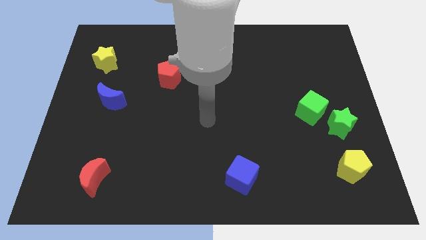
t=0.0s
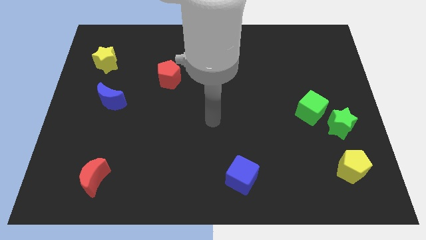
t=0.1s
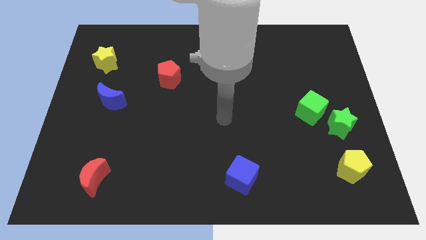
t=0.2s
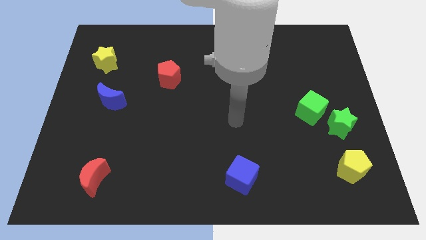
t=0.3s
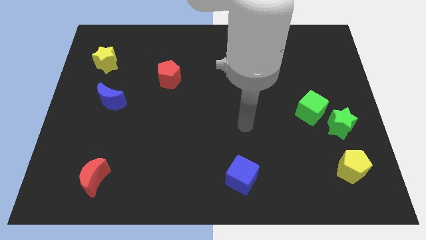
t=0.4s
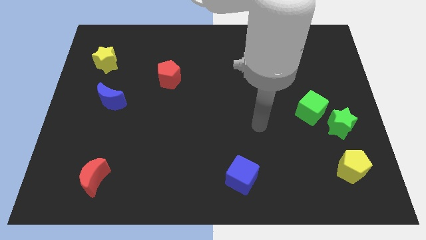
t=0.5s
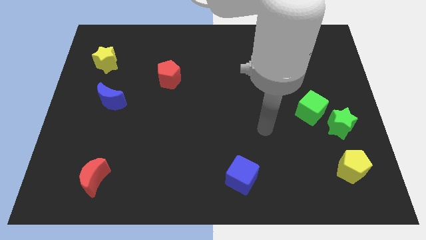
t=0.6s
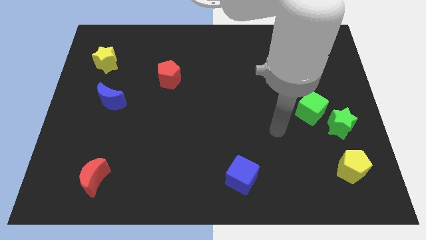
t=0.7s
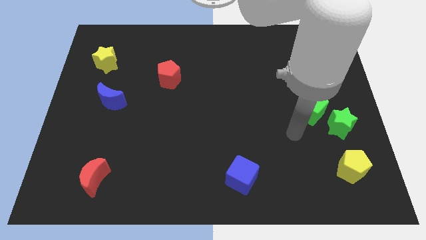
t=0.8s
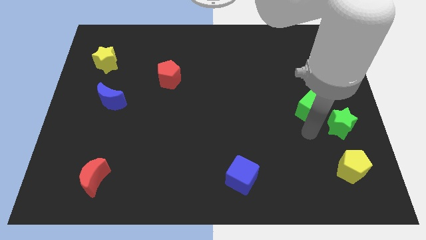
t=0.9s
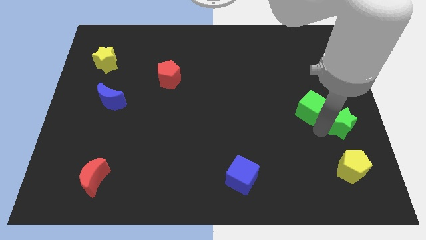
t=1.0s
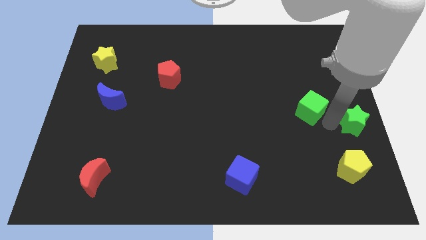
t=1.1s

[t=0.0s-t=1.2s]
separate the green cube from the green star

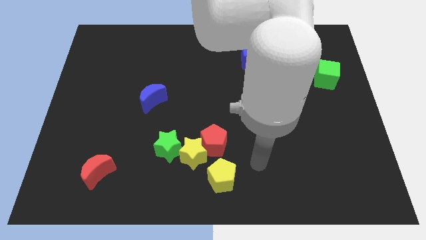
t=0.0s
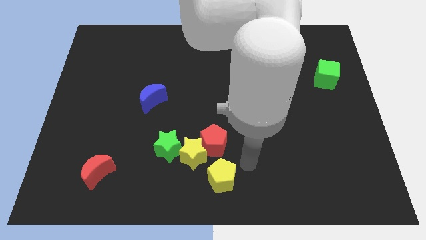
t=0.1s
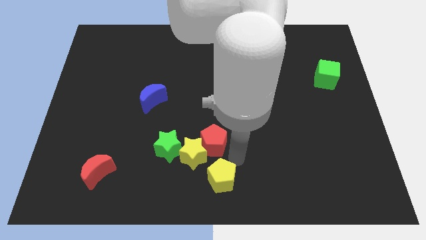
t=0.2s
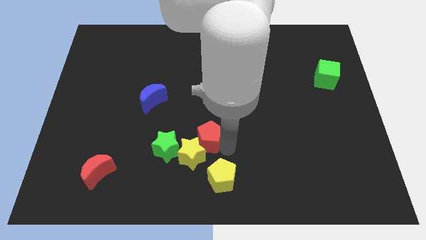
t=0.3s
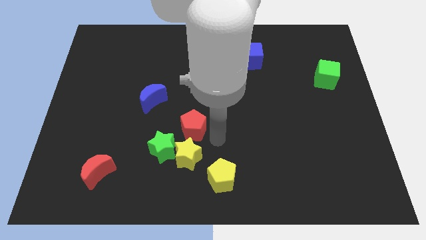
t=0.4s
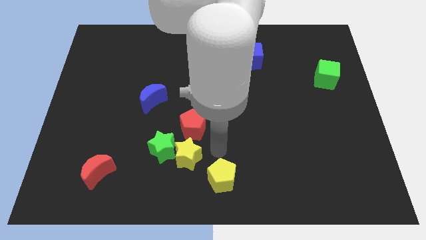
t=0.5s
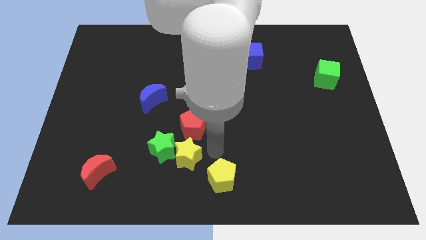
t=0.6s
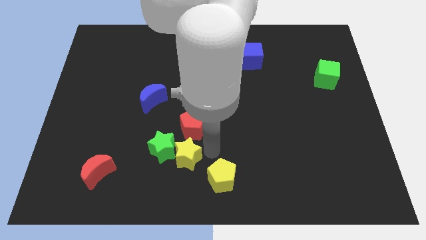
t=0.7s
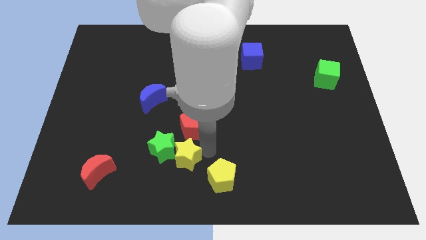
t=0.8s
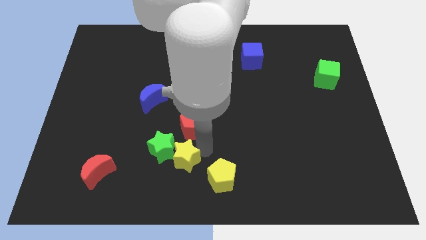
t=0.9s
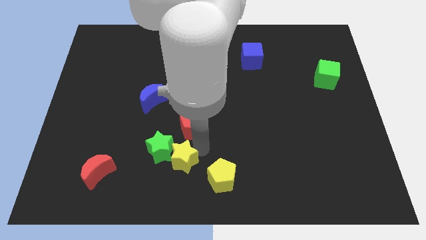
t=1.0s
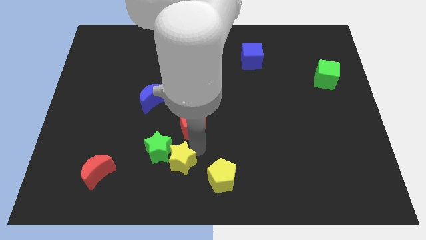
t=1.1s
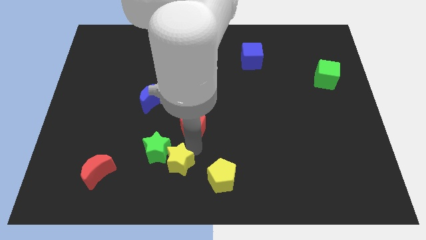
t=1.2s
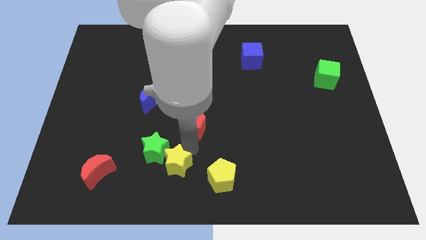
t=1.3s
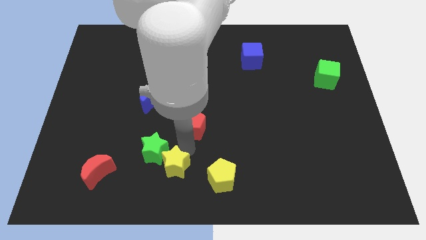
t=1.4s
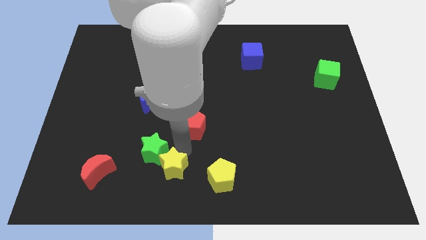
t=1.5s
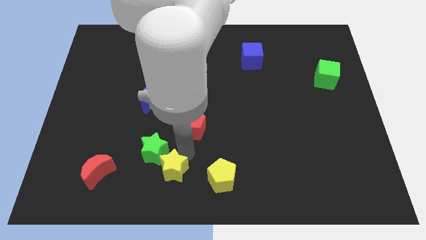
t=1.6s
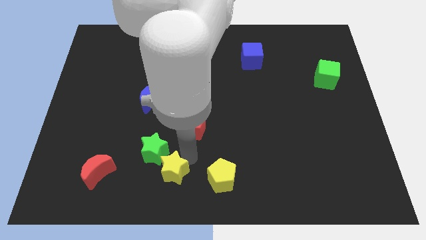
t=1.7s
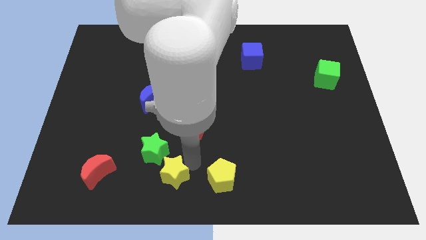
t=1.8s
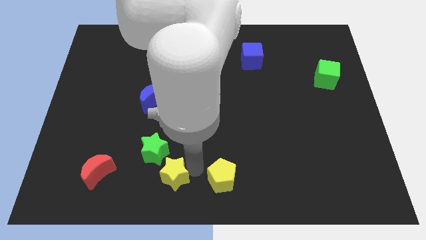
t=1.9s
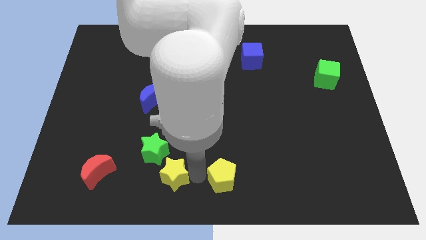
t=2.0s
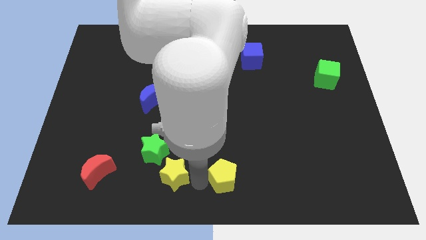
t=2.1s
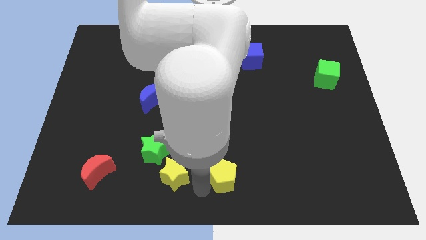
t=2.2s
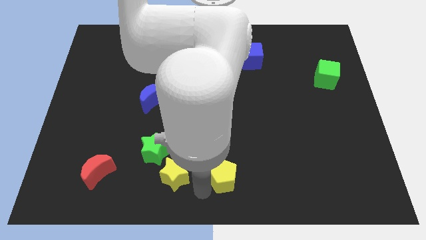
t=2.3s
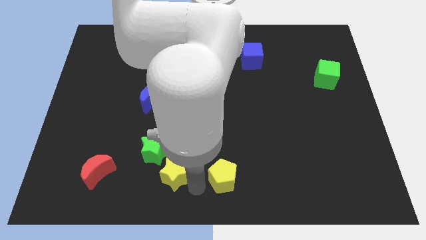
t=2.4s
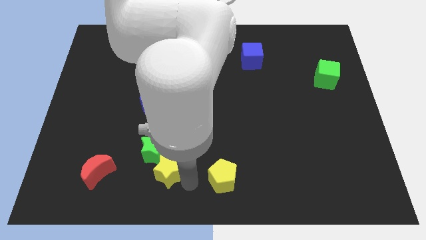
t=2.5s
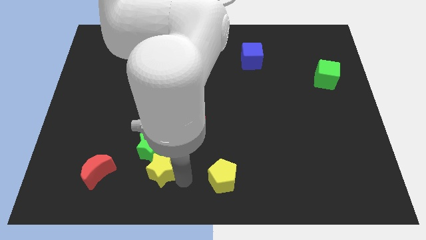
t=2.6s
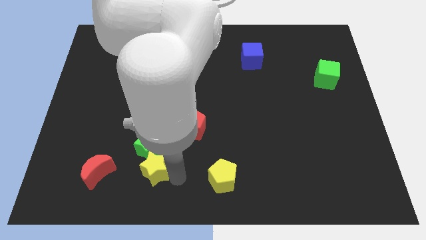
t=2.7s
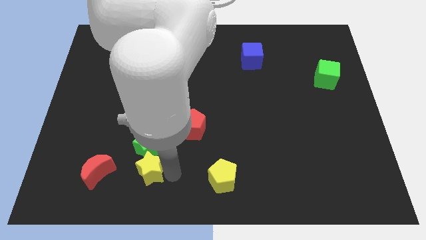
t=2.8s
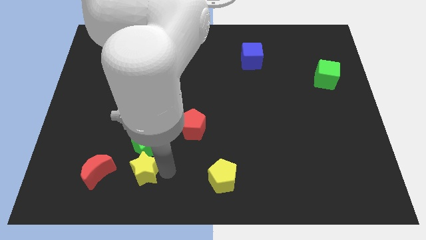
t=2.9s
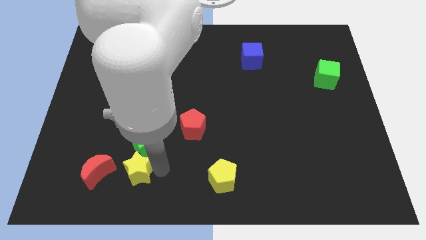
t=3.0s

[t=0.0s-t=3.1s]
move the yellow star away from the red pentagon, green star, and yellow pentagon

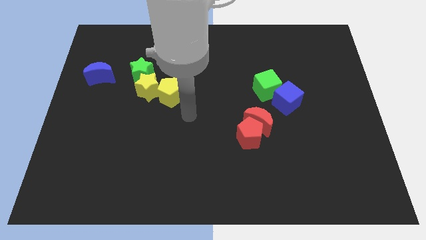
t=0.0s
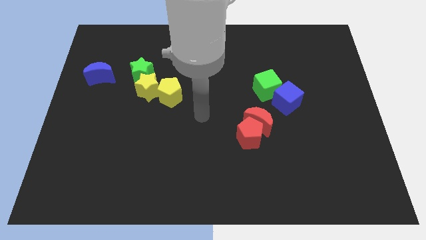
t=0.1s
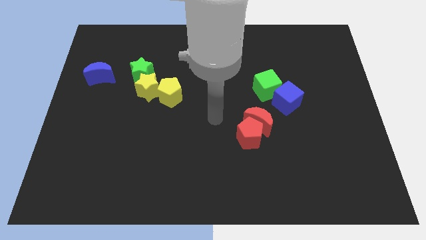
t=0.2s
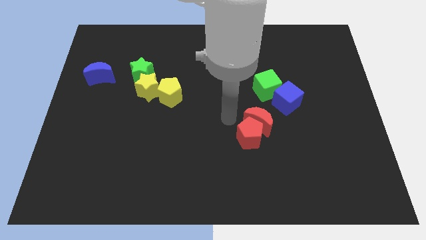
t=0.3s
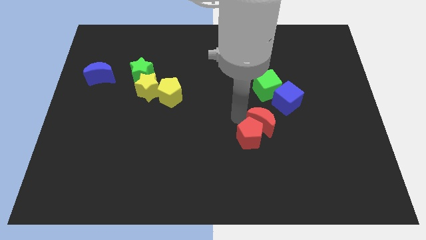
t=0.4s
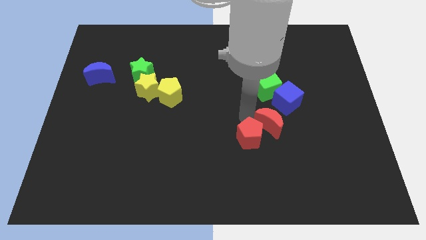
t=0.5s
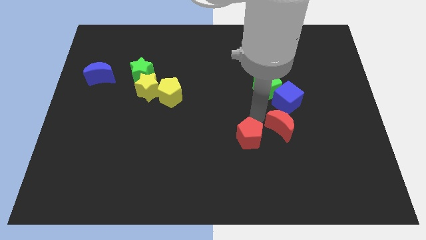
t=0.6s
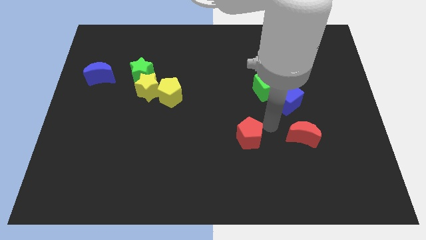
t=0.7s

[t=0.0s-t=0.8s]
separate the red pentagon from the red moon

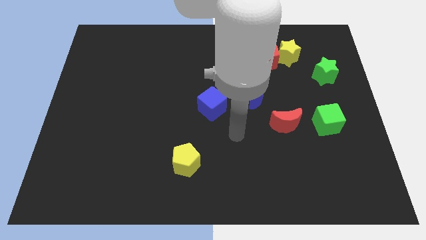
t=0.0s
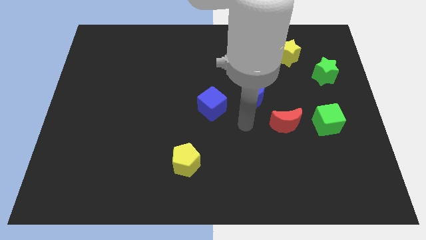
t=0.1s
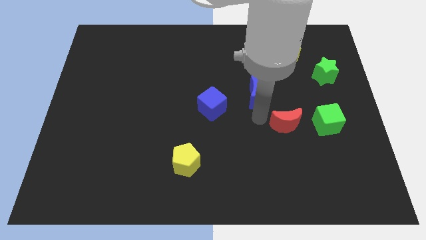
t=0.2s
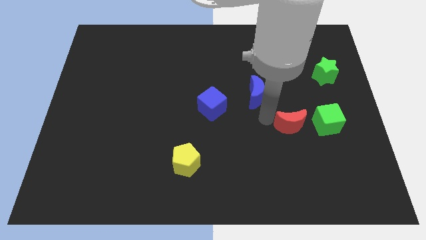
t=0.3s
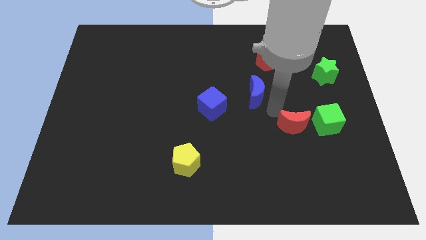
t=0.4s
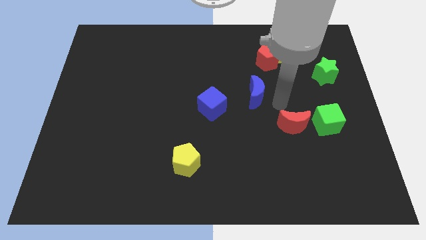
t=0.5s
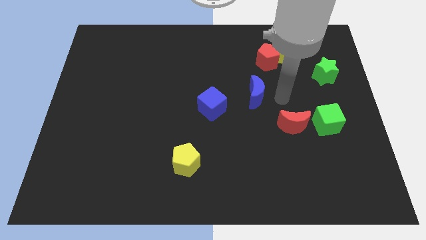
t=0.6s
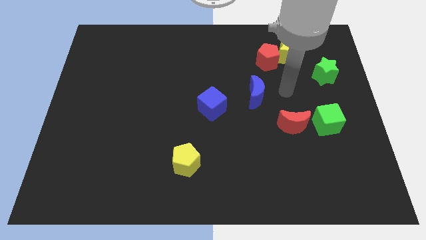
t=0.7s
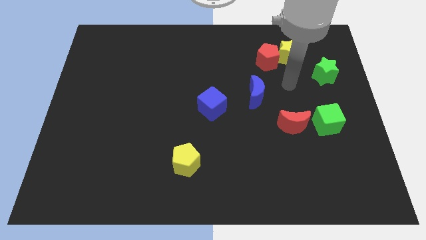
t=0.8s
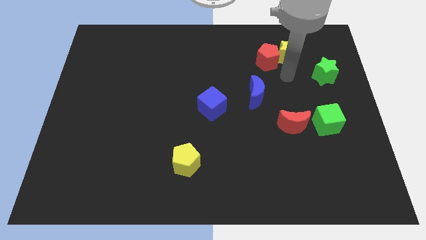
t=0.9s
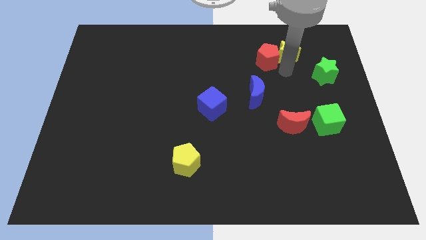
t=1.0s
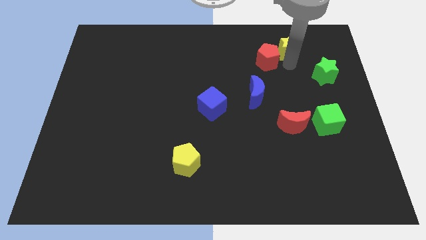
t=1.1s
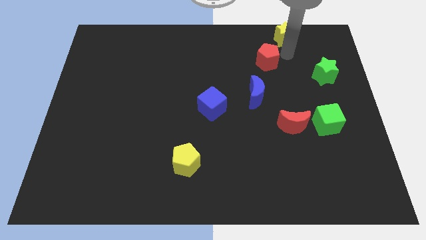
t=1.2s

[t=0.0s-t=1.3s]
separate the red pentagon from the yellow star

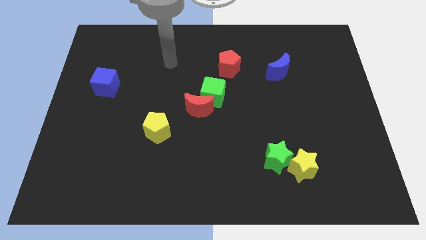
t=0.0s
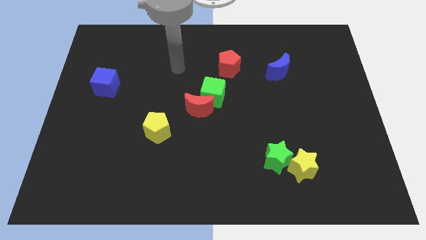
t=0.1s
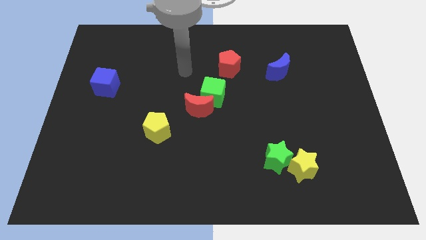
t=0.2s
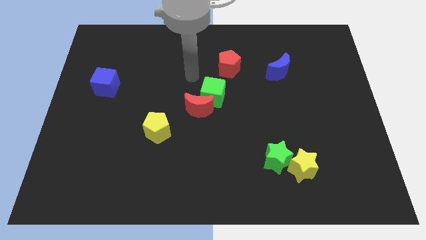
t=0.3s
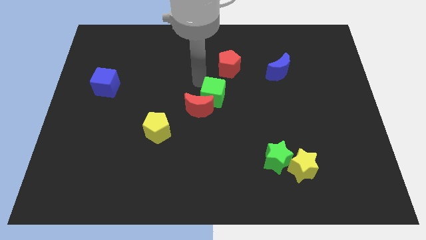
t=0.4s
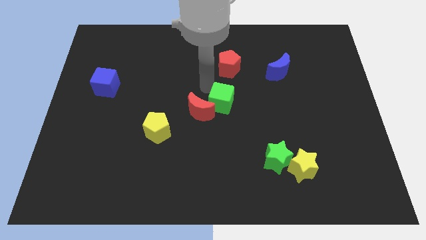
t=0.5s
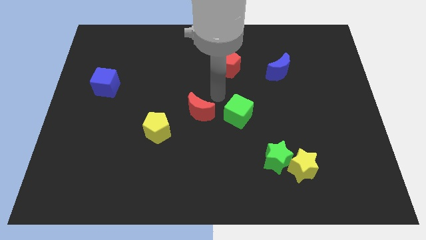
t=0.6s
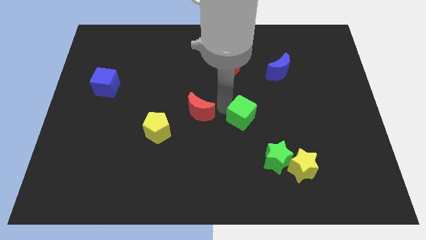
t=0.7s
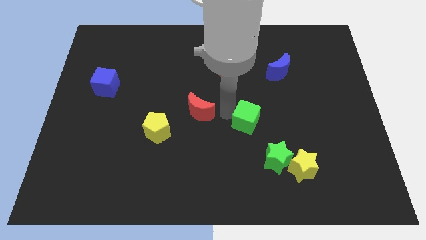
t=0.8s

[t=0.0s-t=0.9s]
pull the red moon apart from the green cube

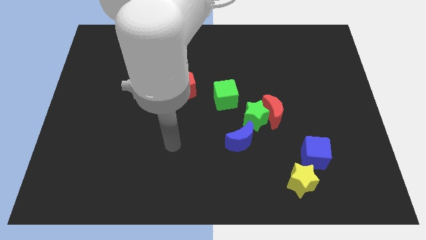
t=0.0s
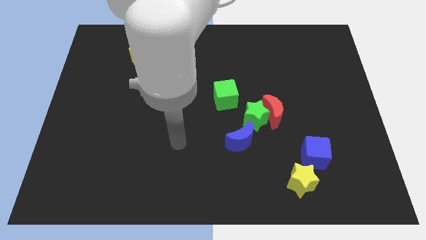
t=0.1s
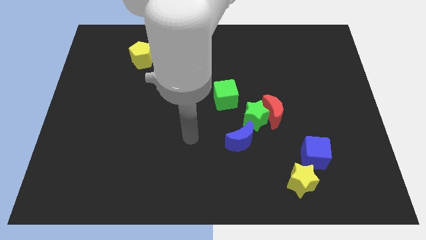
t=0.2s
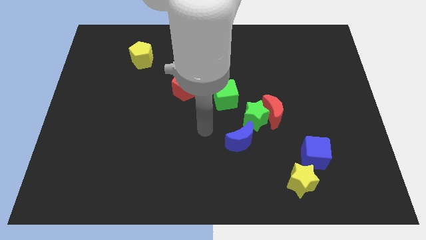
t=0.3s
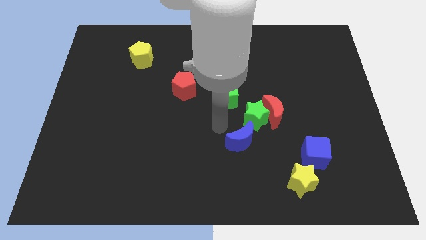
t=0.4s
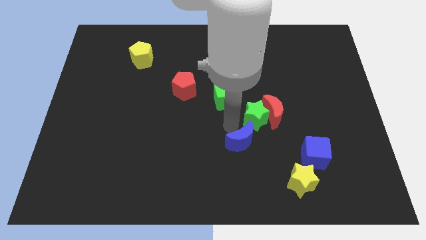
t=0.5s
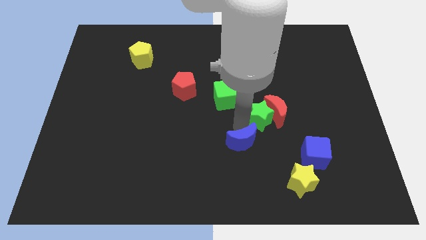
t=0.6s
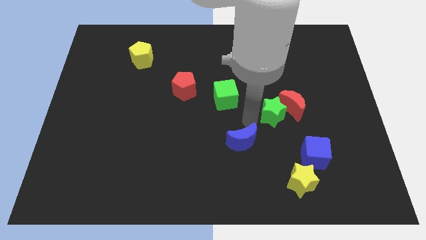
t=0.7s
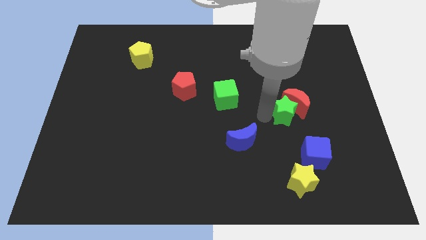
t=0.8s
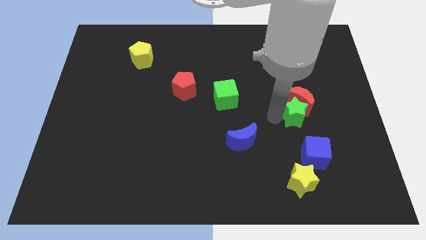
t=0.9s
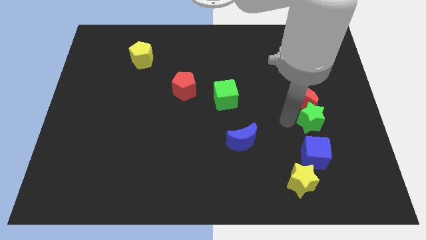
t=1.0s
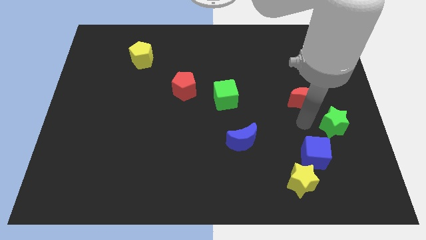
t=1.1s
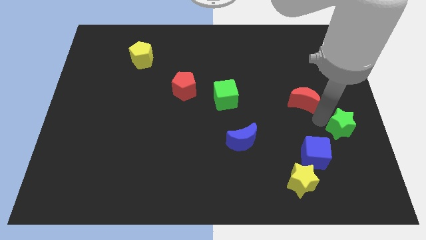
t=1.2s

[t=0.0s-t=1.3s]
move the red moon away from the green star

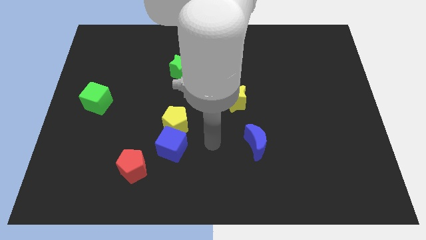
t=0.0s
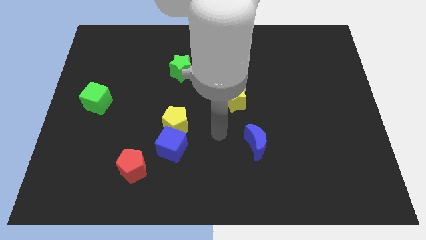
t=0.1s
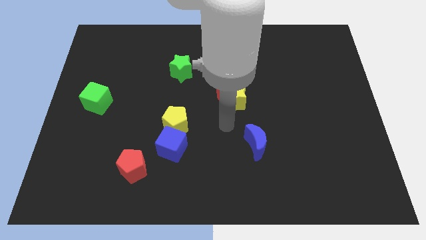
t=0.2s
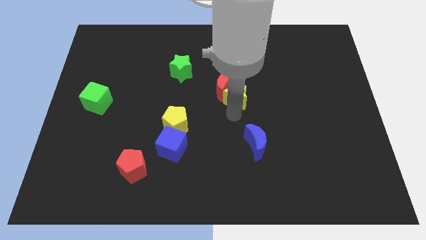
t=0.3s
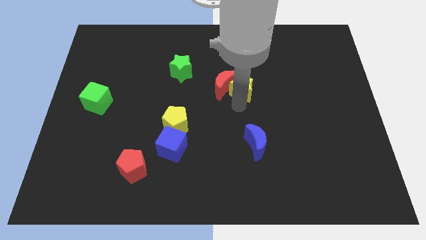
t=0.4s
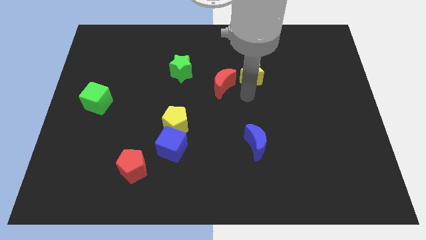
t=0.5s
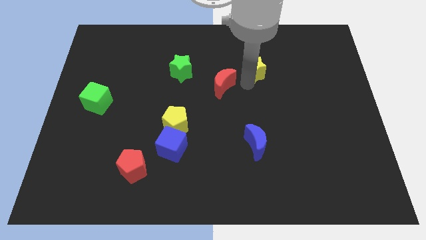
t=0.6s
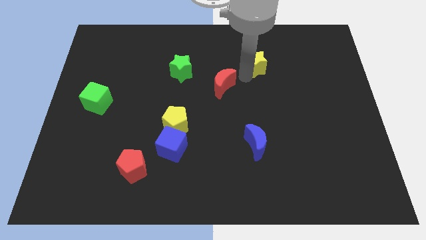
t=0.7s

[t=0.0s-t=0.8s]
separate the red moon from the yellow star
